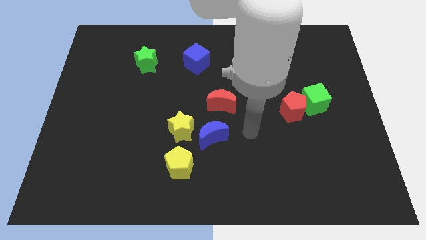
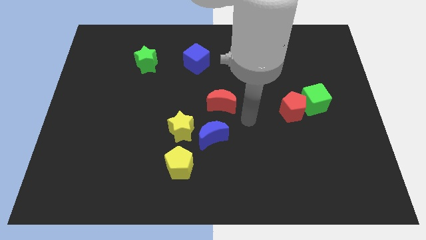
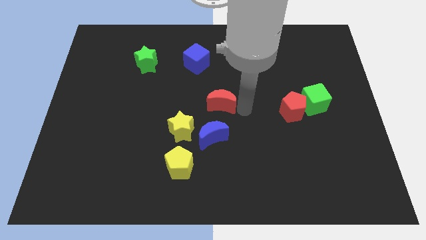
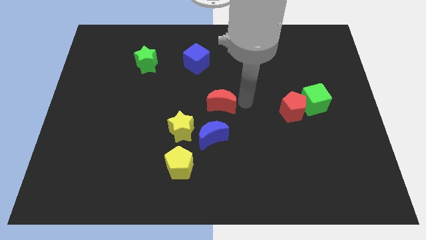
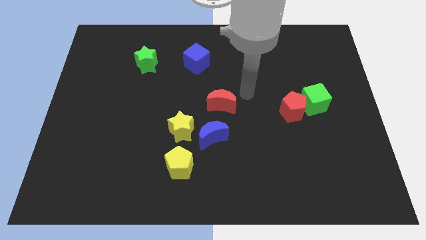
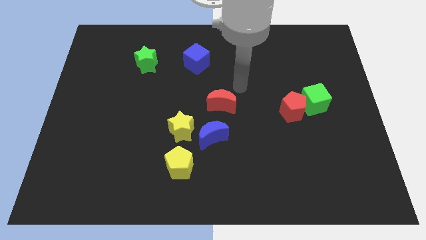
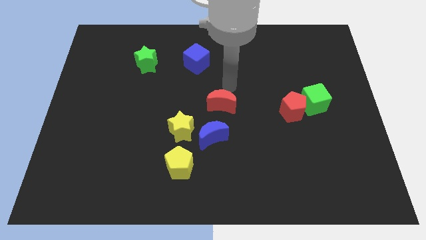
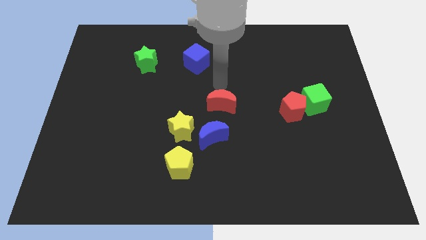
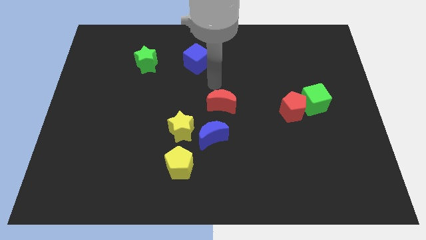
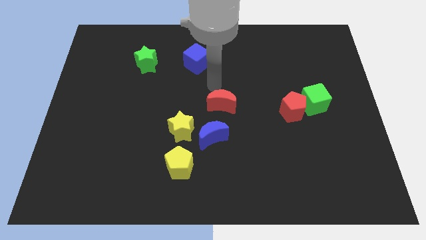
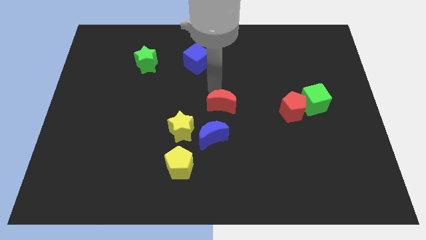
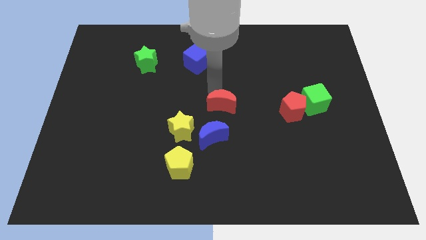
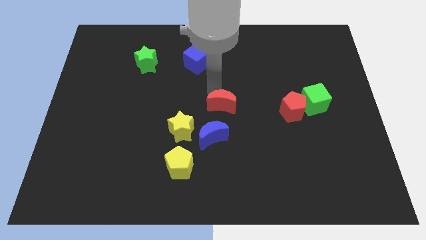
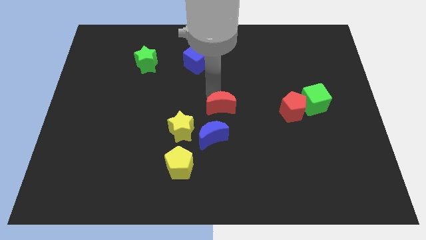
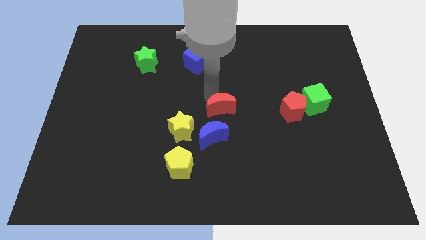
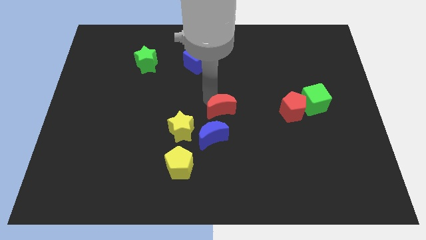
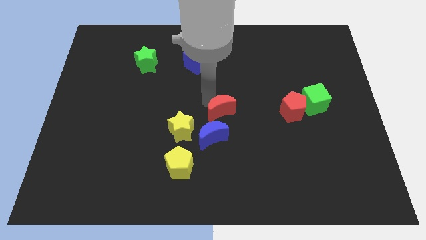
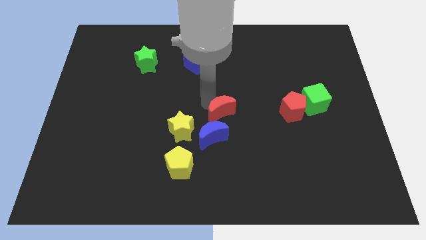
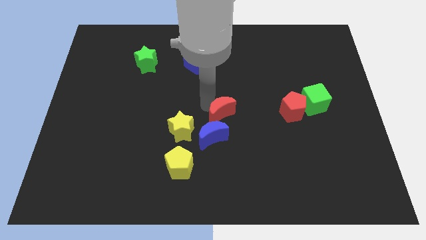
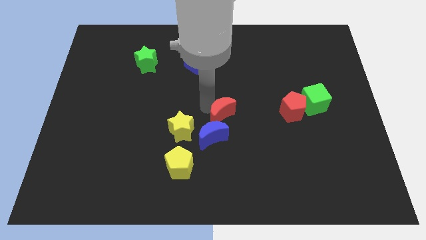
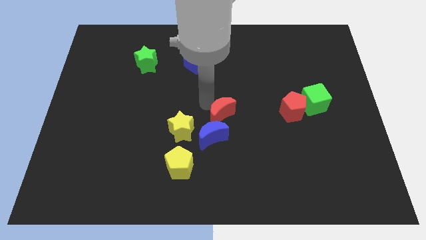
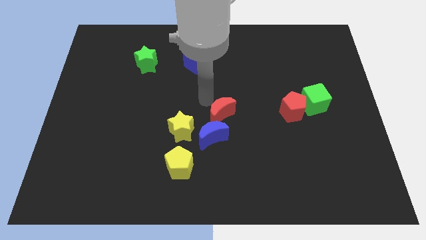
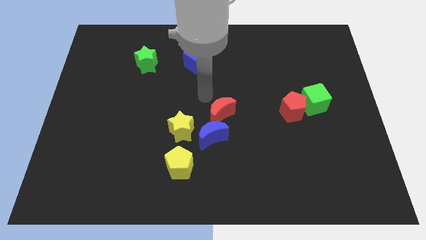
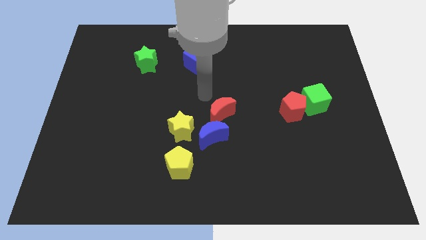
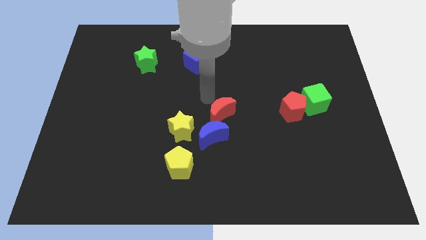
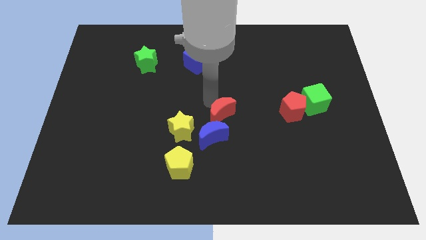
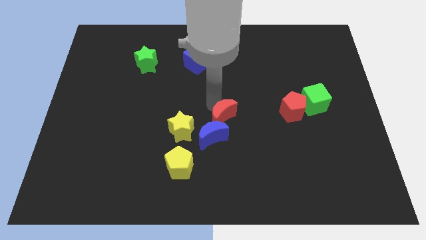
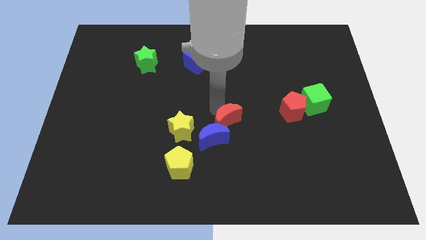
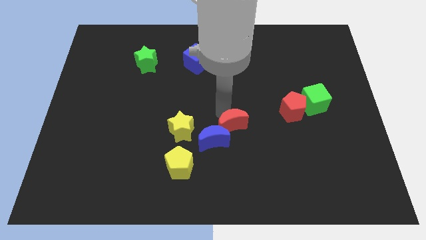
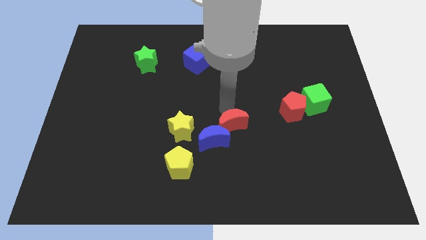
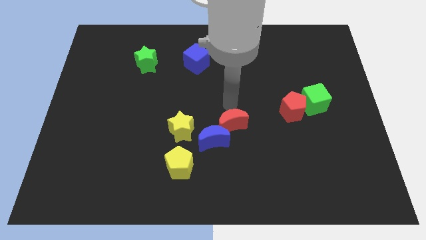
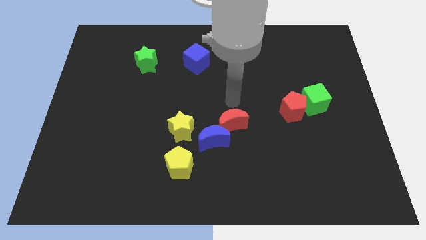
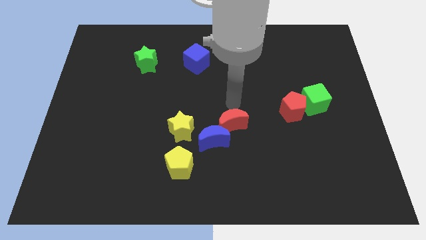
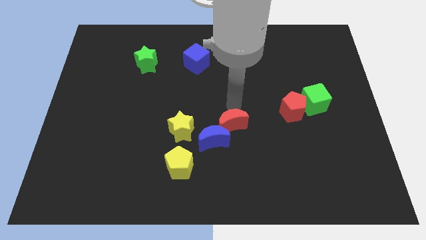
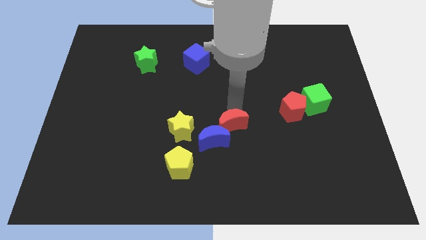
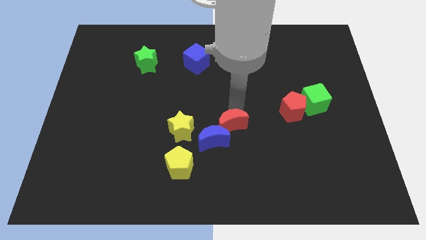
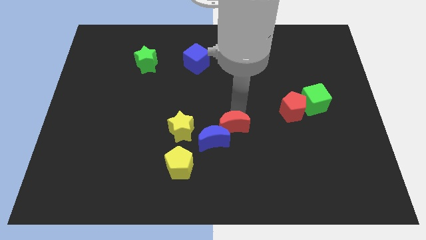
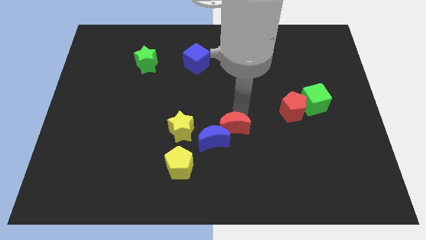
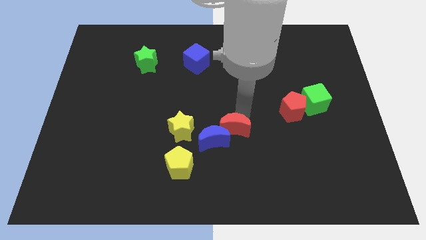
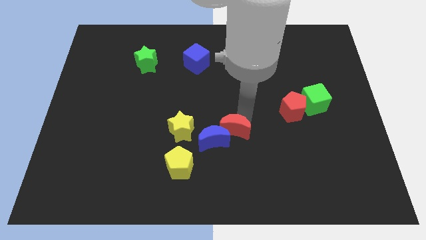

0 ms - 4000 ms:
push the red moon downwards a bit

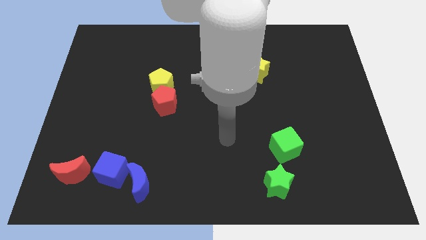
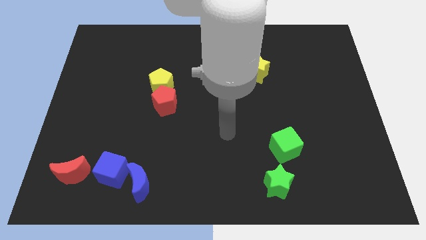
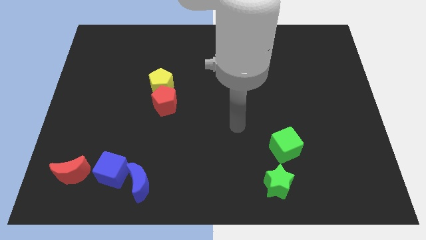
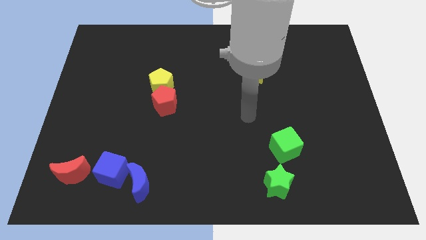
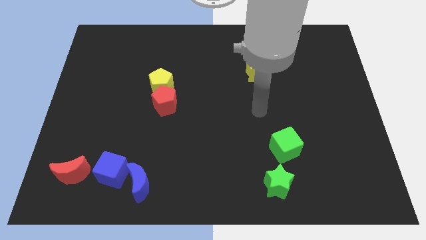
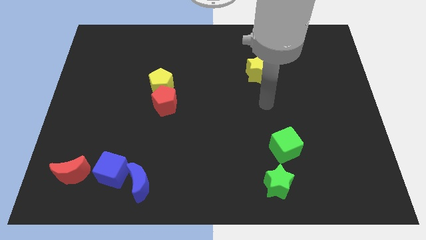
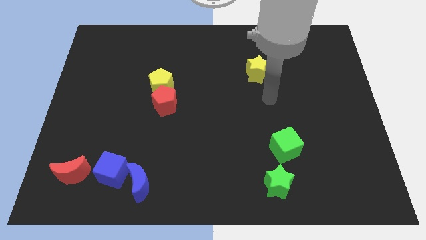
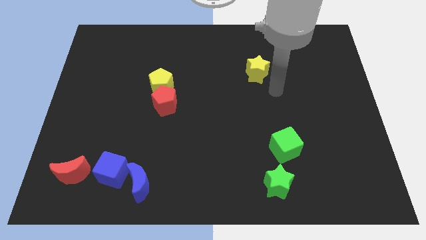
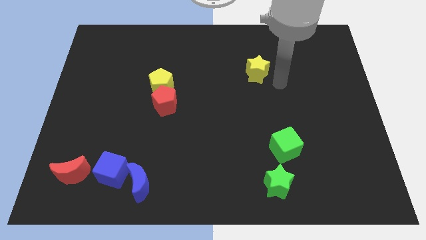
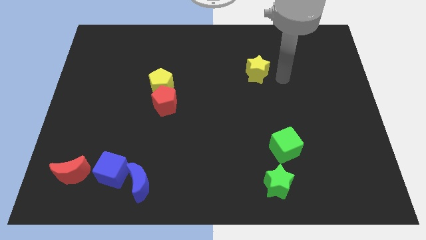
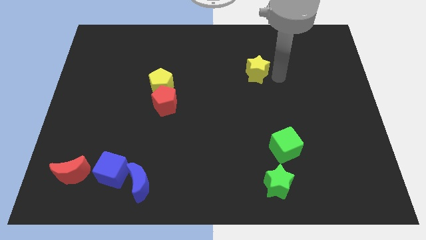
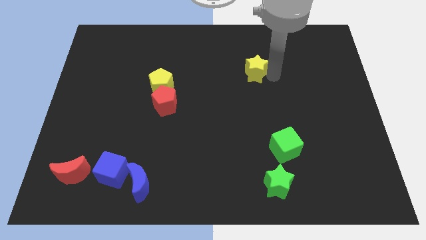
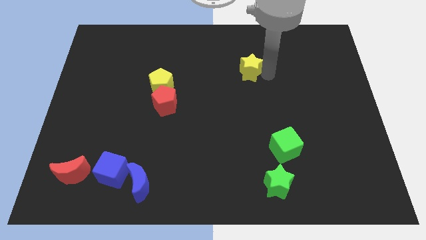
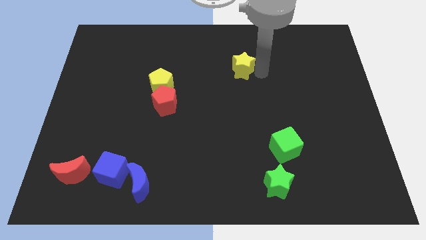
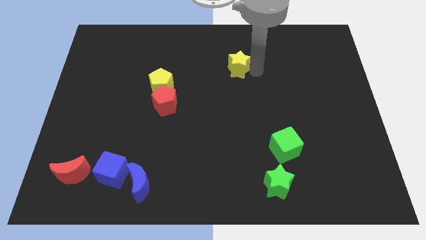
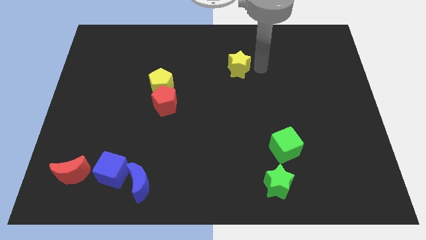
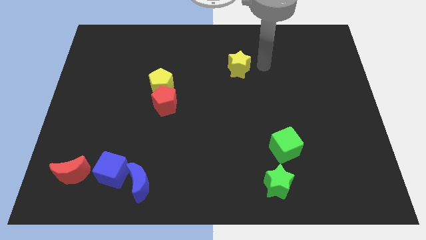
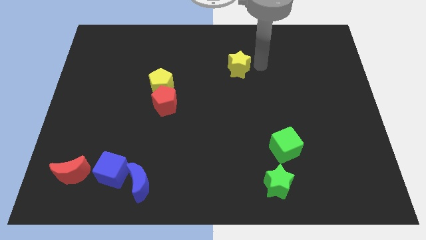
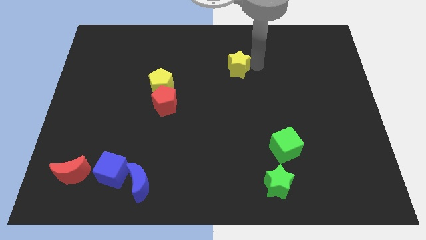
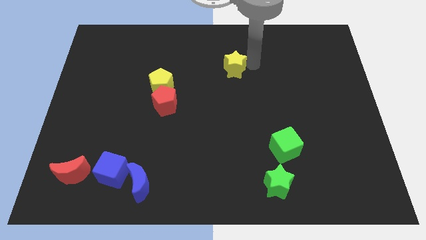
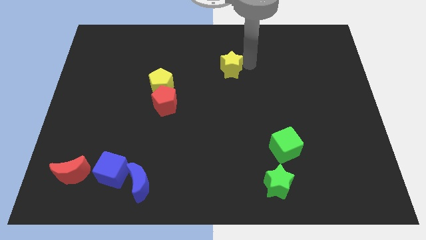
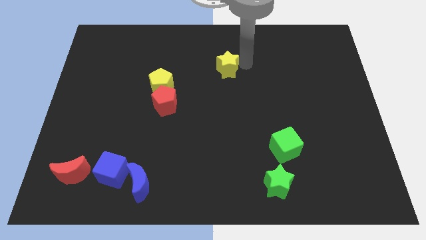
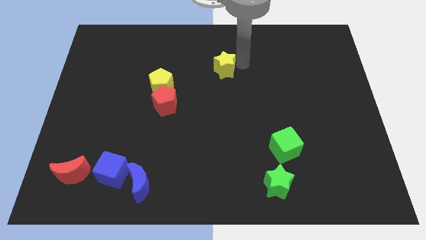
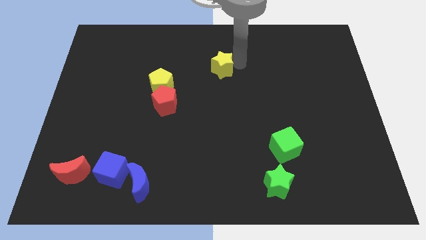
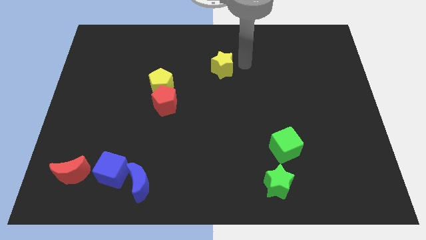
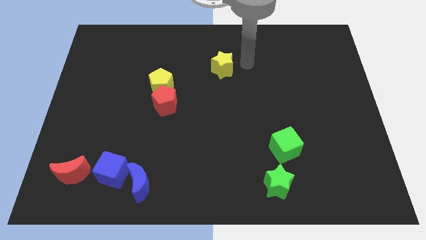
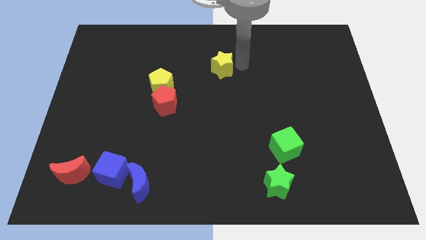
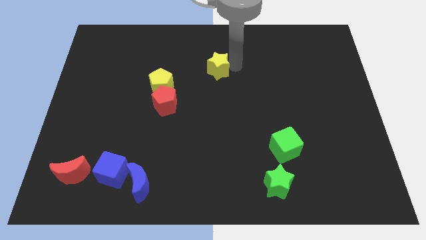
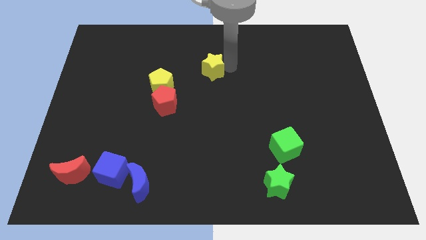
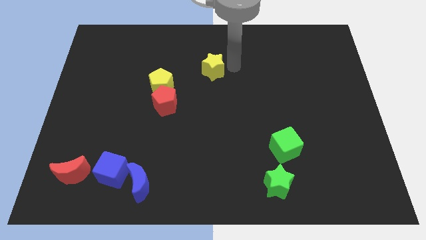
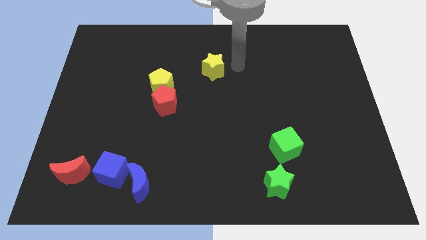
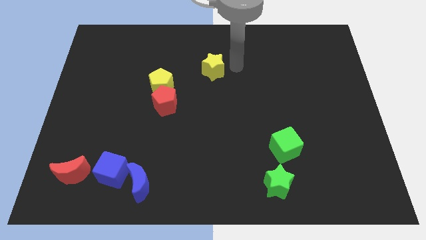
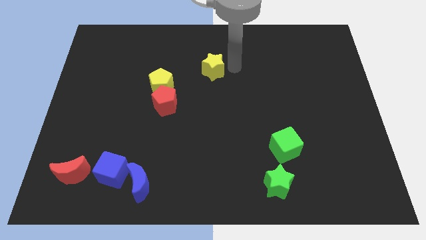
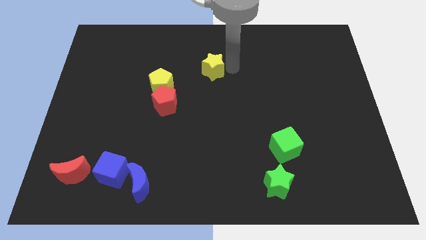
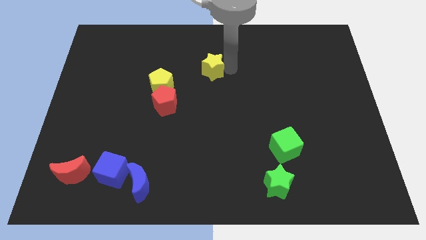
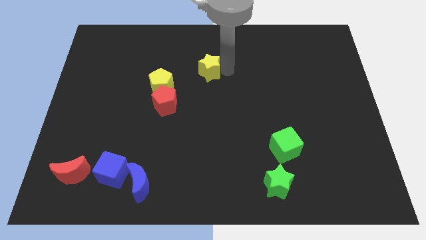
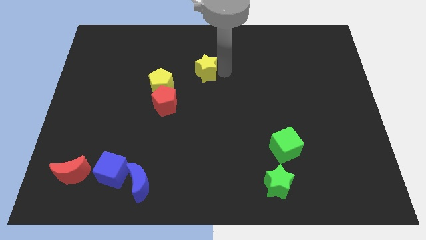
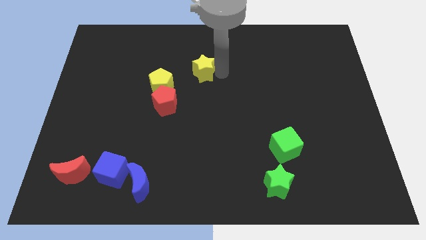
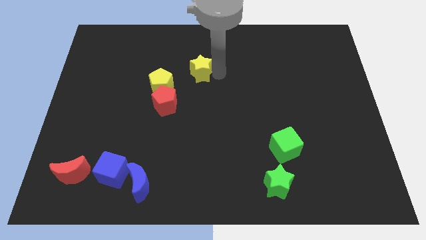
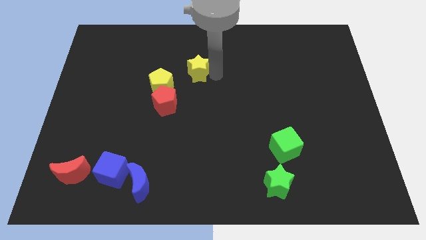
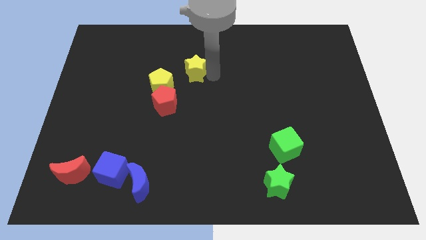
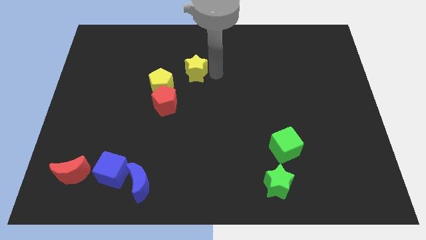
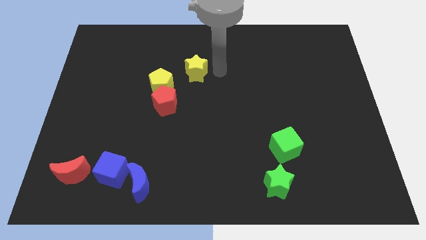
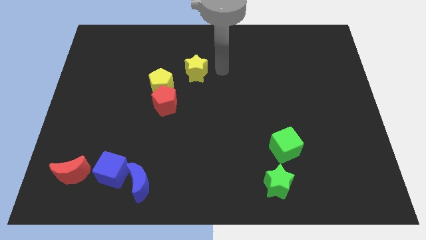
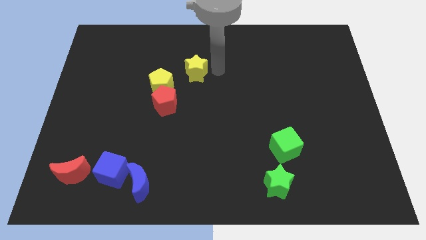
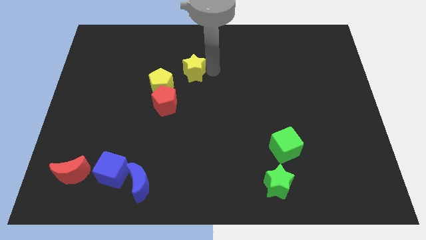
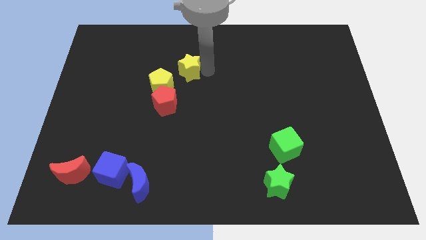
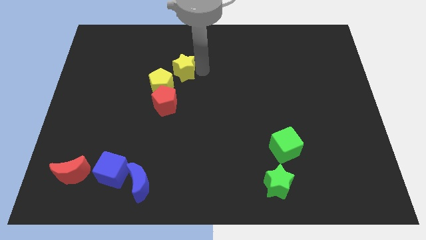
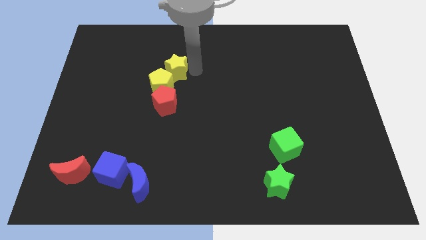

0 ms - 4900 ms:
slide the yellow star to the left
